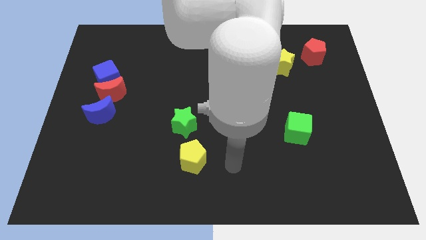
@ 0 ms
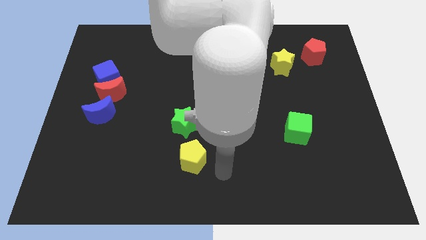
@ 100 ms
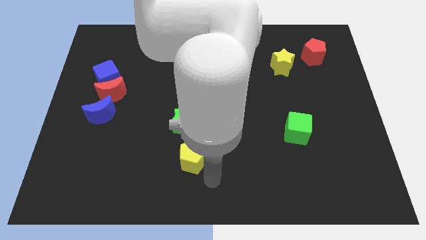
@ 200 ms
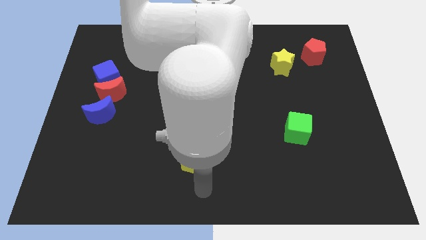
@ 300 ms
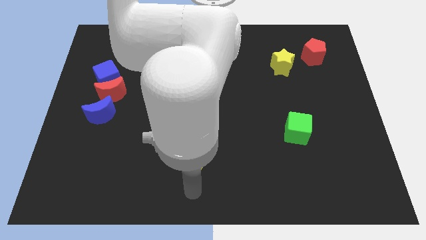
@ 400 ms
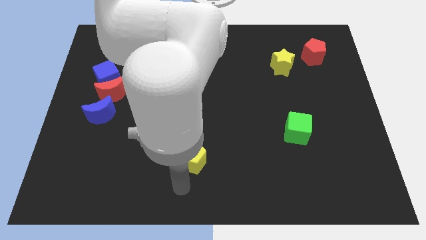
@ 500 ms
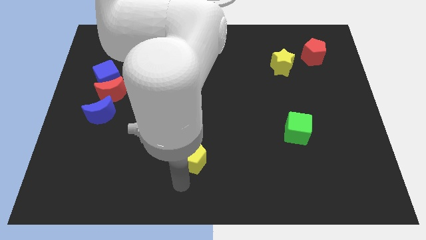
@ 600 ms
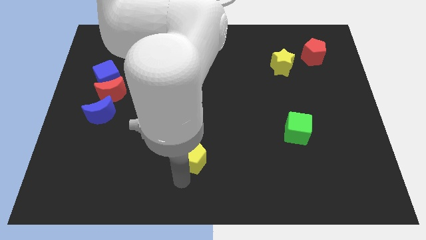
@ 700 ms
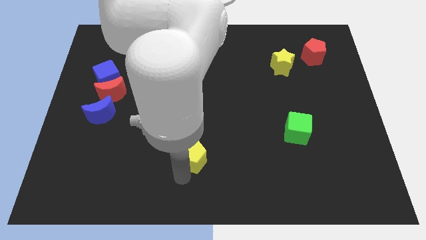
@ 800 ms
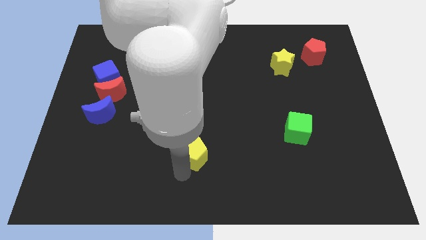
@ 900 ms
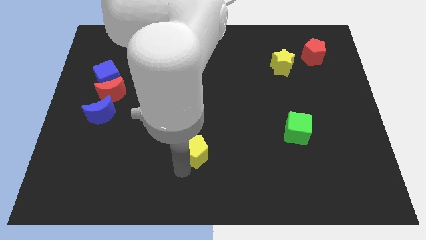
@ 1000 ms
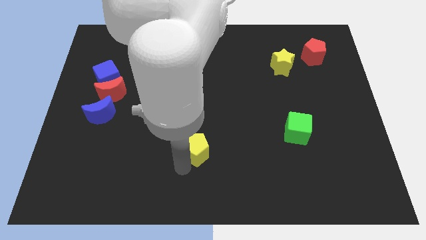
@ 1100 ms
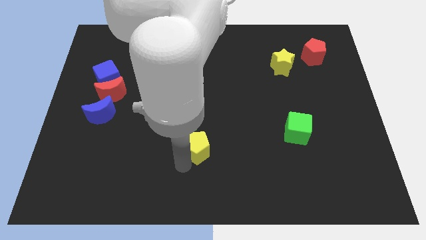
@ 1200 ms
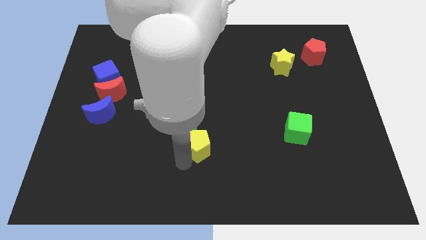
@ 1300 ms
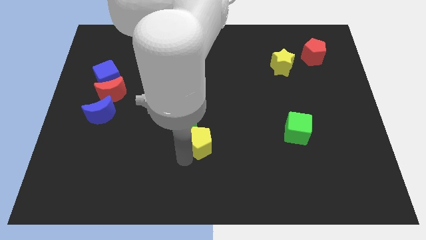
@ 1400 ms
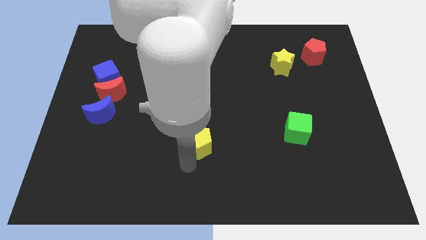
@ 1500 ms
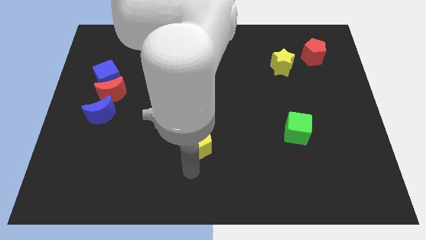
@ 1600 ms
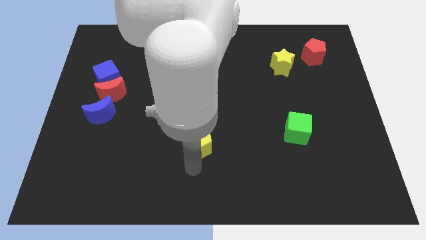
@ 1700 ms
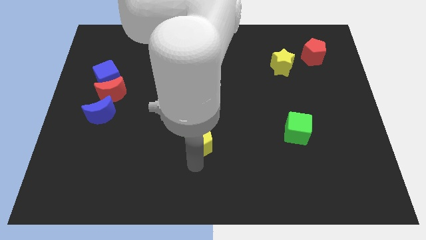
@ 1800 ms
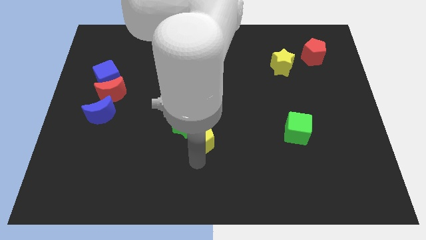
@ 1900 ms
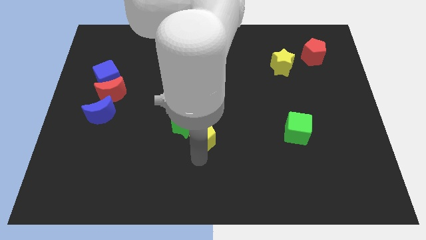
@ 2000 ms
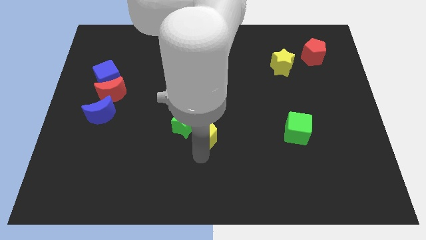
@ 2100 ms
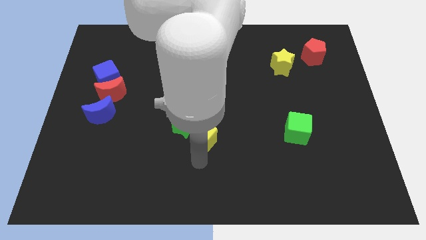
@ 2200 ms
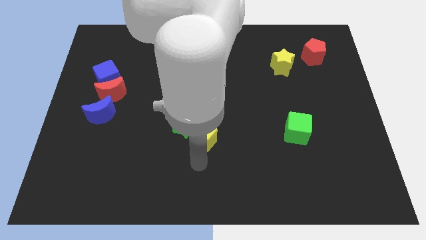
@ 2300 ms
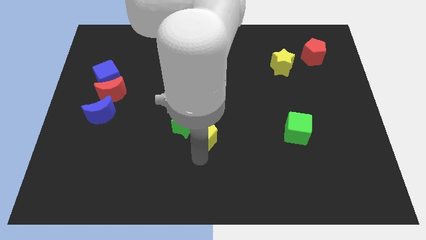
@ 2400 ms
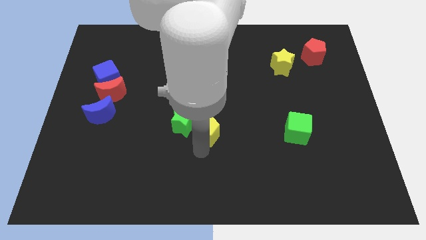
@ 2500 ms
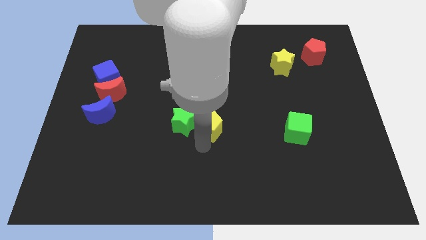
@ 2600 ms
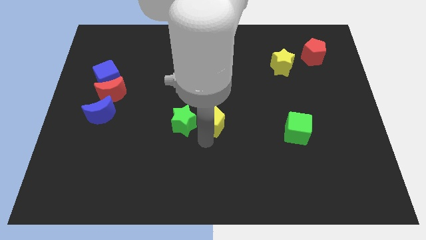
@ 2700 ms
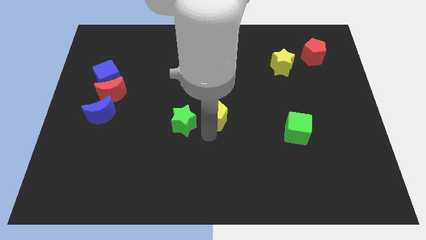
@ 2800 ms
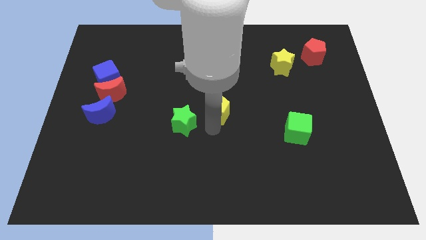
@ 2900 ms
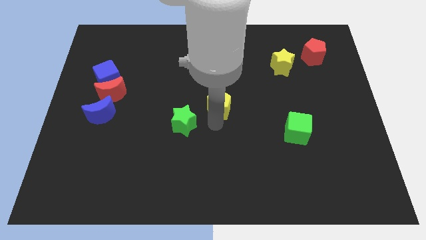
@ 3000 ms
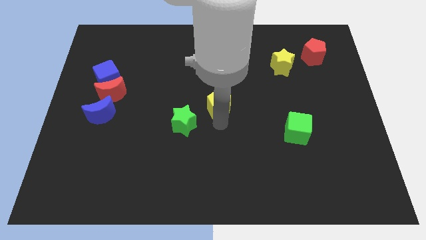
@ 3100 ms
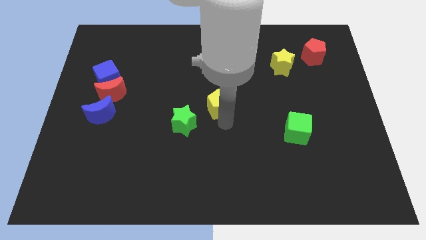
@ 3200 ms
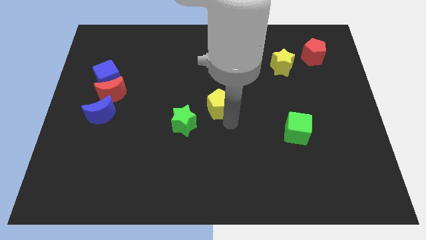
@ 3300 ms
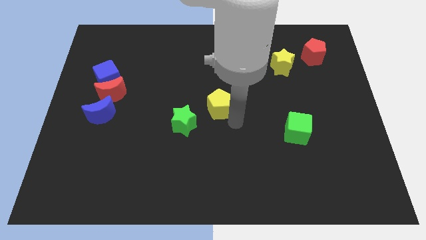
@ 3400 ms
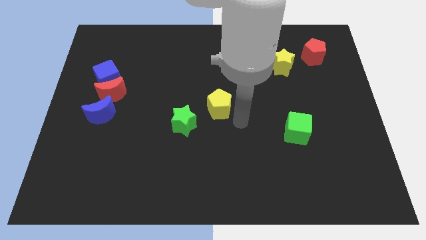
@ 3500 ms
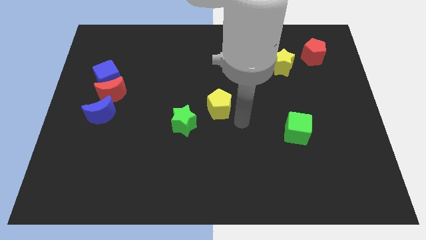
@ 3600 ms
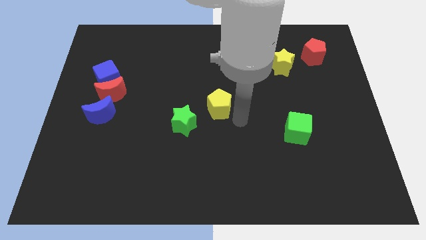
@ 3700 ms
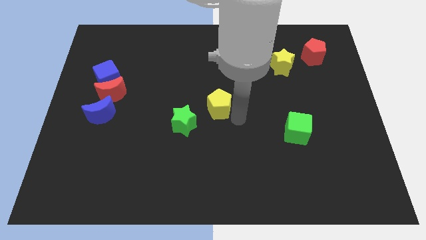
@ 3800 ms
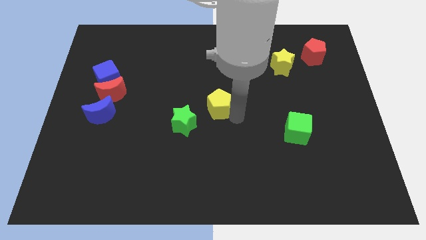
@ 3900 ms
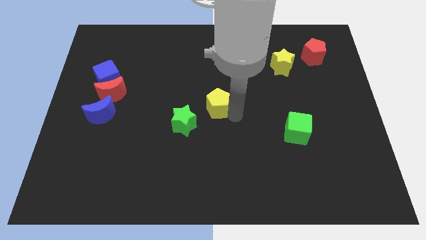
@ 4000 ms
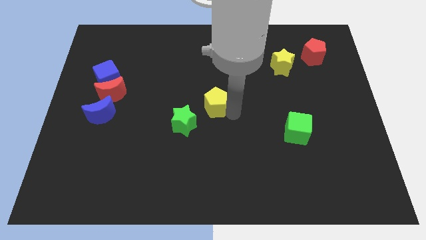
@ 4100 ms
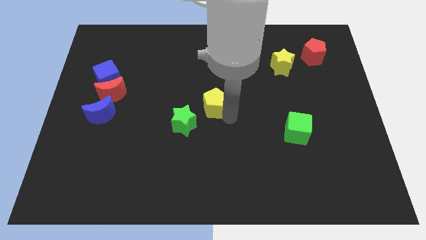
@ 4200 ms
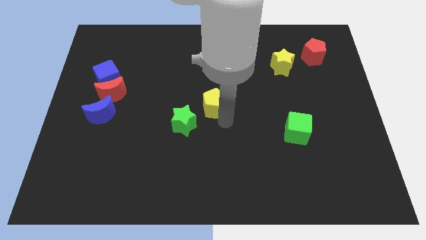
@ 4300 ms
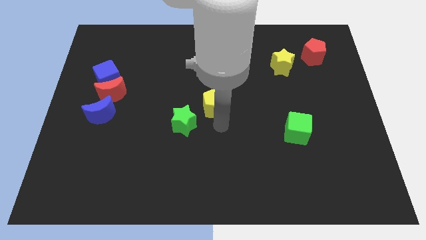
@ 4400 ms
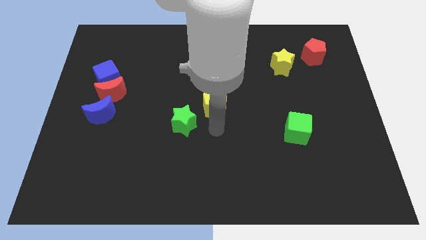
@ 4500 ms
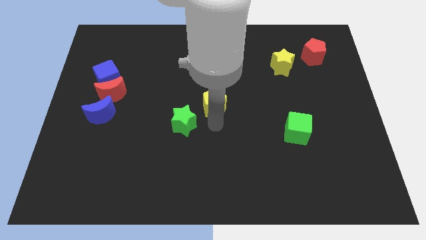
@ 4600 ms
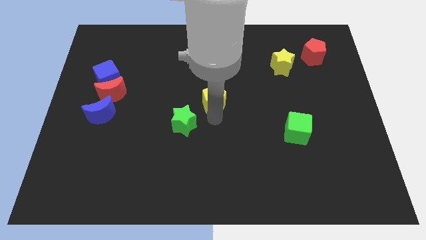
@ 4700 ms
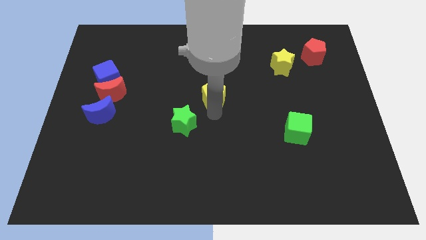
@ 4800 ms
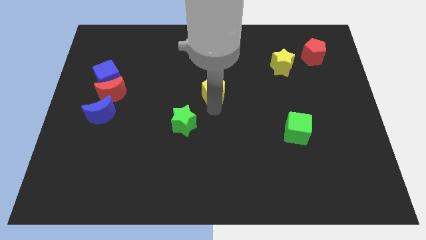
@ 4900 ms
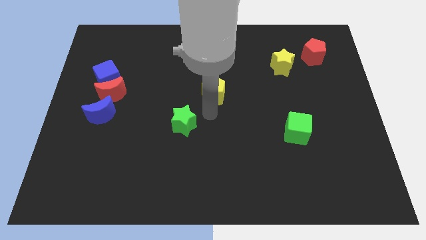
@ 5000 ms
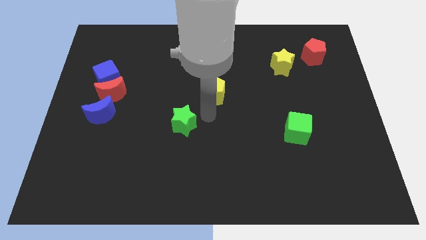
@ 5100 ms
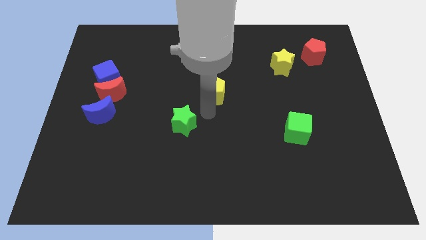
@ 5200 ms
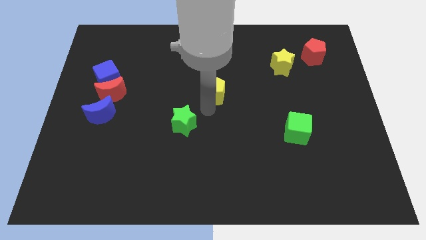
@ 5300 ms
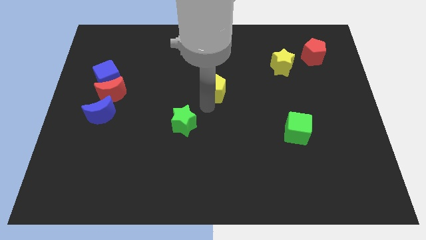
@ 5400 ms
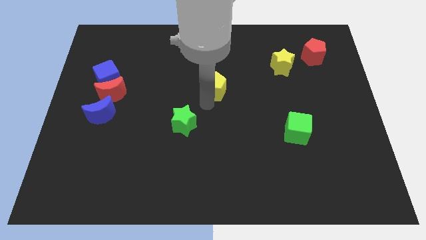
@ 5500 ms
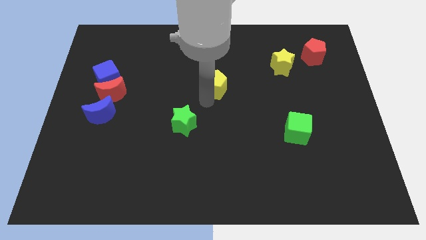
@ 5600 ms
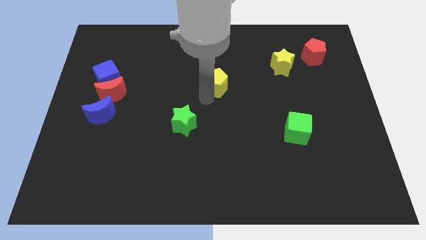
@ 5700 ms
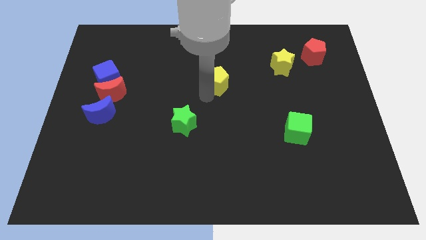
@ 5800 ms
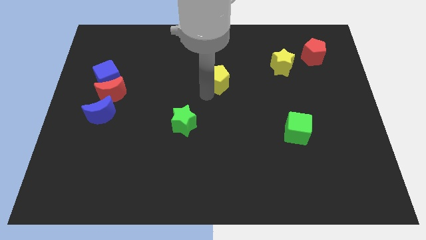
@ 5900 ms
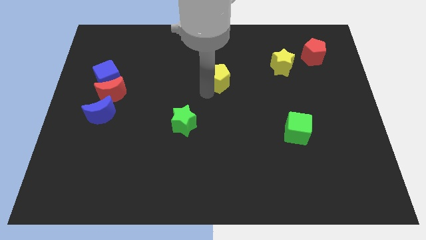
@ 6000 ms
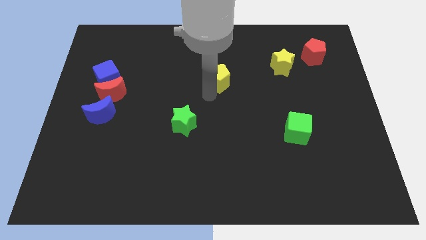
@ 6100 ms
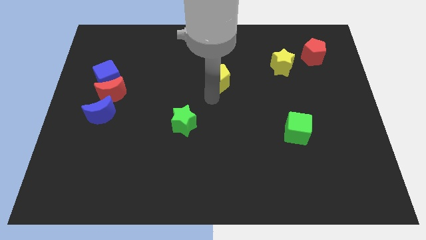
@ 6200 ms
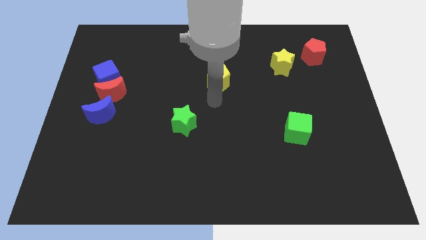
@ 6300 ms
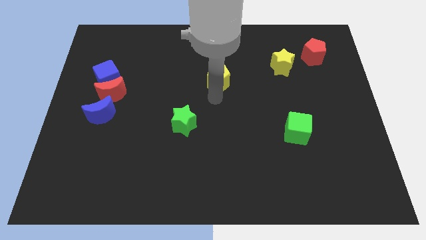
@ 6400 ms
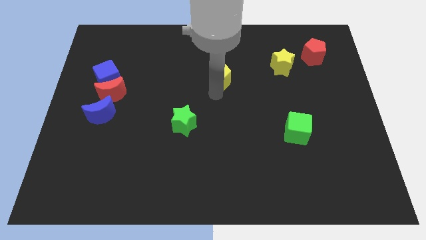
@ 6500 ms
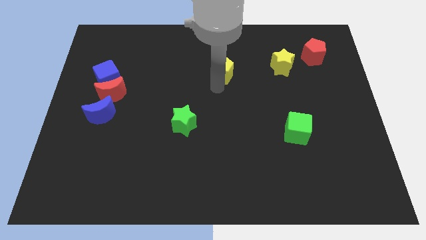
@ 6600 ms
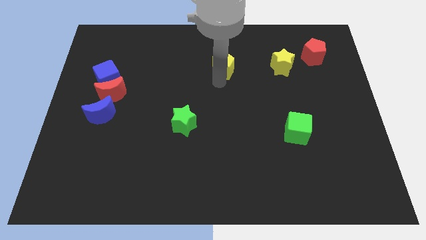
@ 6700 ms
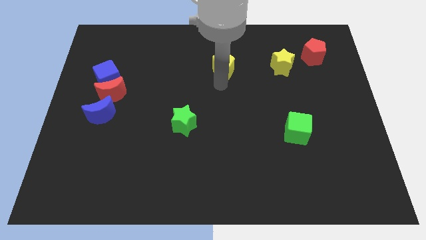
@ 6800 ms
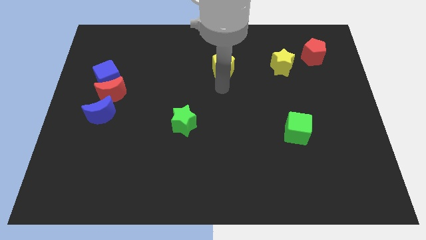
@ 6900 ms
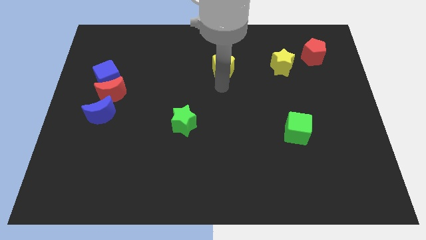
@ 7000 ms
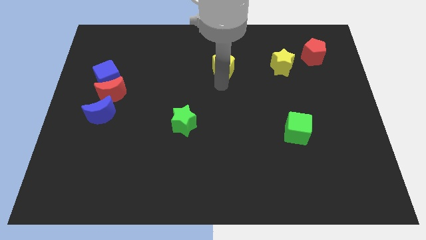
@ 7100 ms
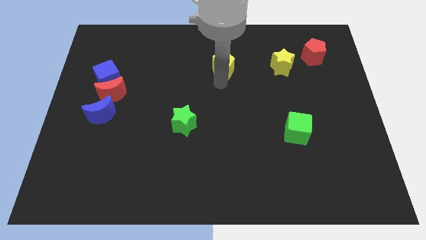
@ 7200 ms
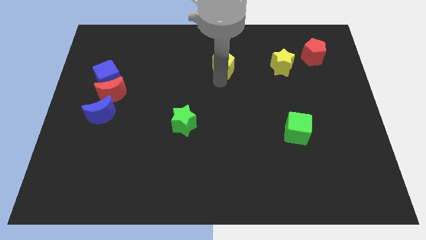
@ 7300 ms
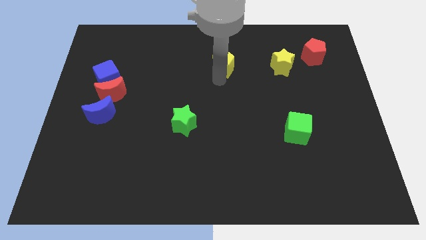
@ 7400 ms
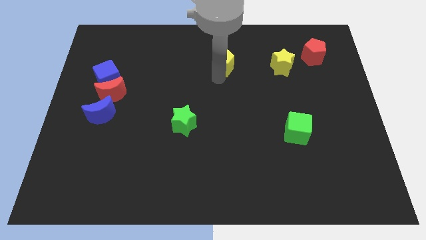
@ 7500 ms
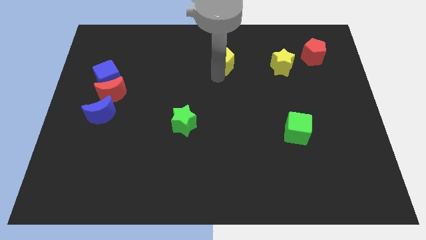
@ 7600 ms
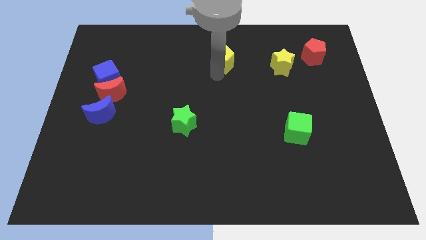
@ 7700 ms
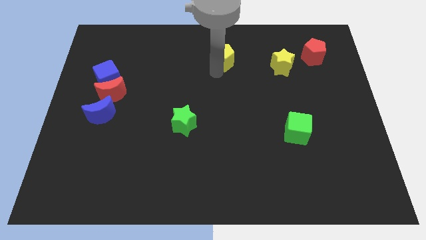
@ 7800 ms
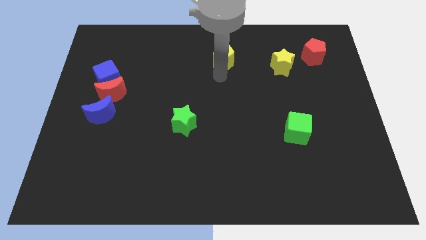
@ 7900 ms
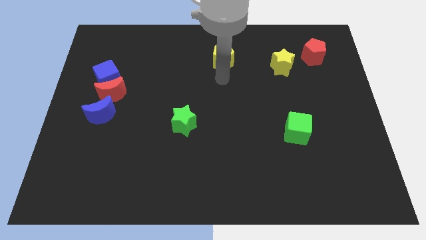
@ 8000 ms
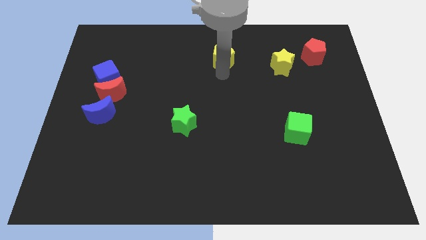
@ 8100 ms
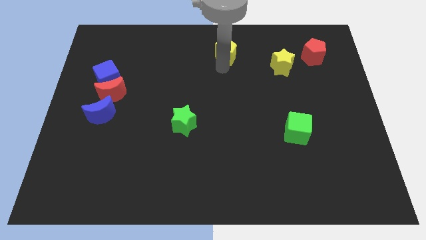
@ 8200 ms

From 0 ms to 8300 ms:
move the yellow pentagon to the top side
